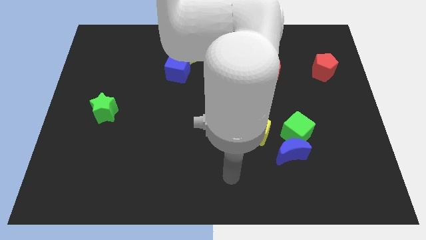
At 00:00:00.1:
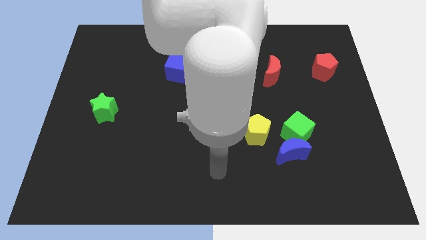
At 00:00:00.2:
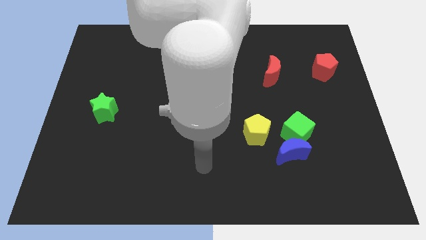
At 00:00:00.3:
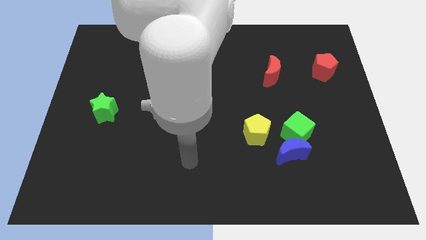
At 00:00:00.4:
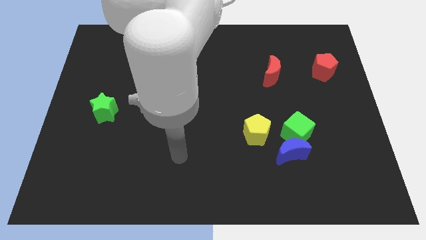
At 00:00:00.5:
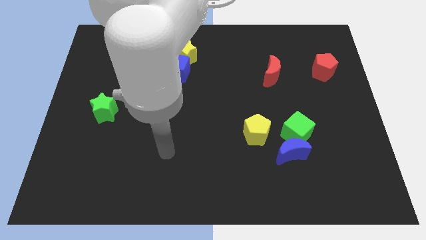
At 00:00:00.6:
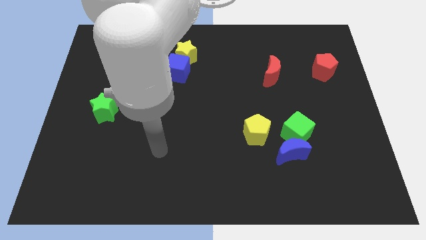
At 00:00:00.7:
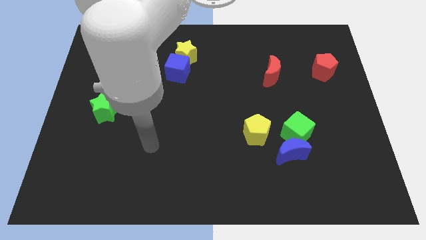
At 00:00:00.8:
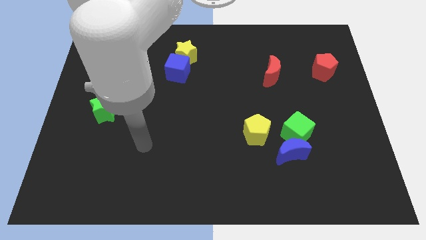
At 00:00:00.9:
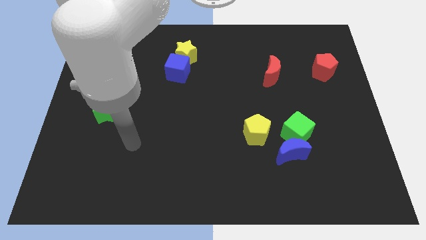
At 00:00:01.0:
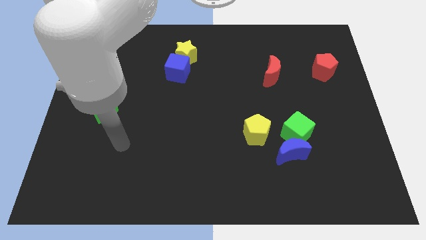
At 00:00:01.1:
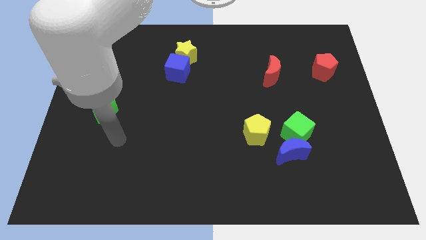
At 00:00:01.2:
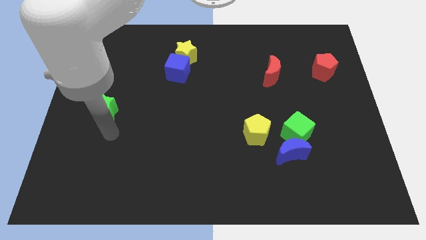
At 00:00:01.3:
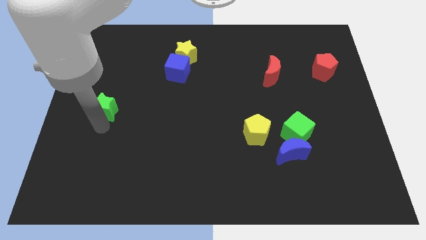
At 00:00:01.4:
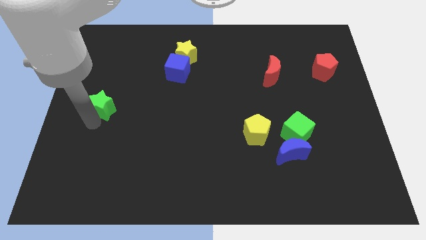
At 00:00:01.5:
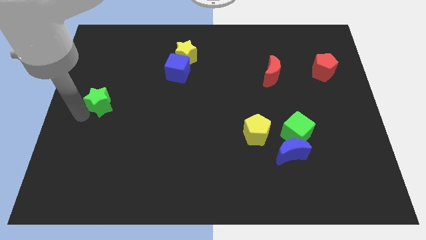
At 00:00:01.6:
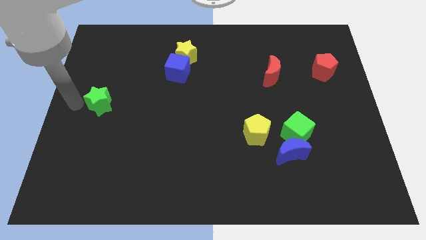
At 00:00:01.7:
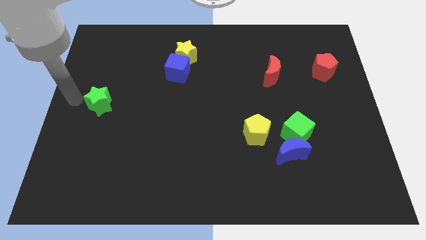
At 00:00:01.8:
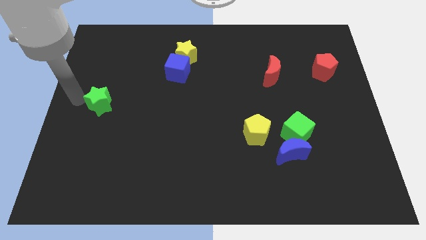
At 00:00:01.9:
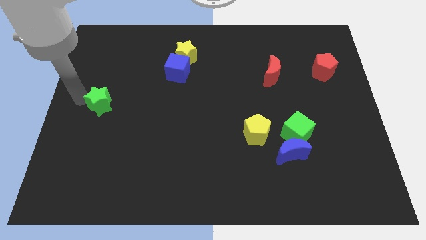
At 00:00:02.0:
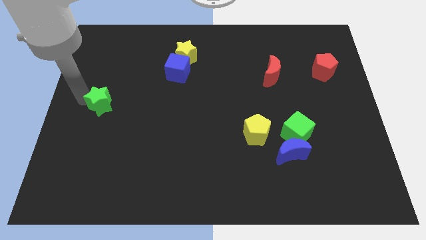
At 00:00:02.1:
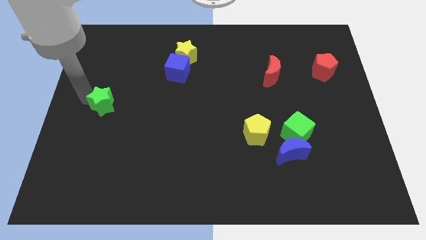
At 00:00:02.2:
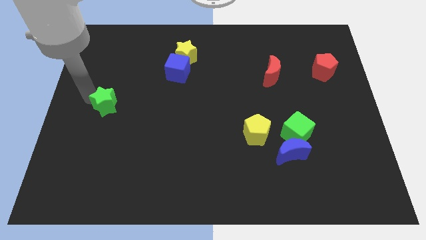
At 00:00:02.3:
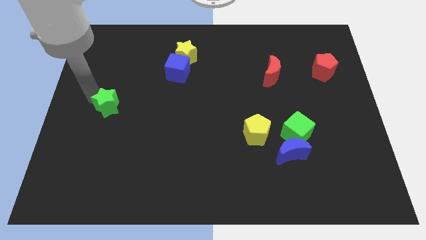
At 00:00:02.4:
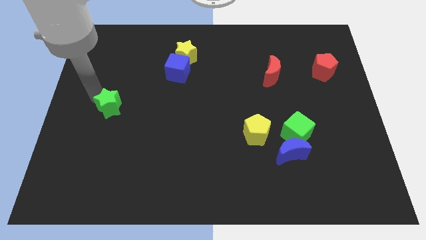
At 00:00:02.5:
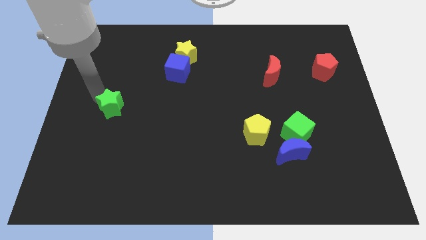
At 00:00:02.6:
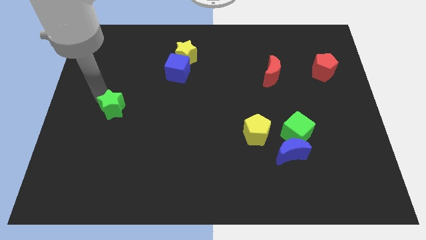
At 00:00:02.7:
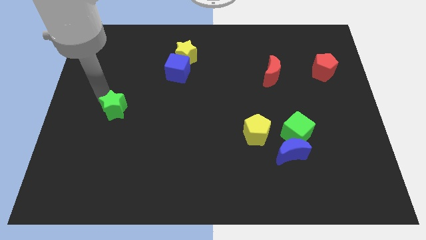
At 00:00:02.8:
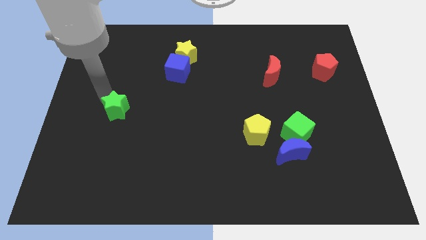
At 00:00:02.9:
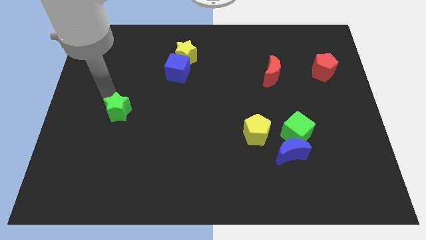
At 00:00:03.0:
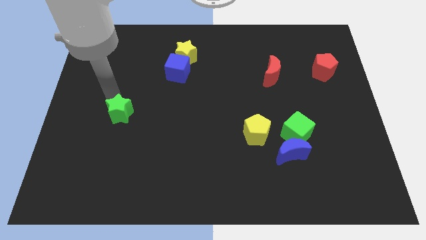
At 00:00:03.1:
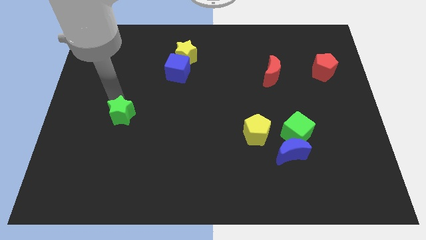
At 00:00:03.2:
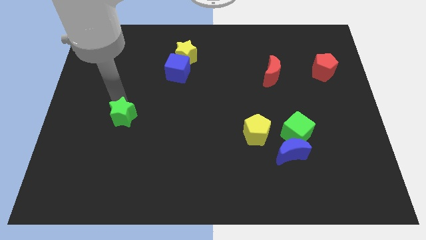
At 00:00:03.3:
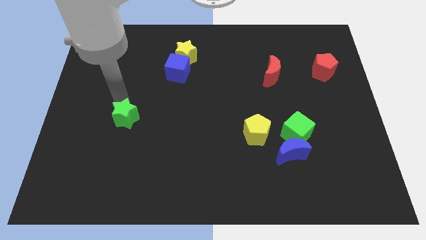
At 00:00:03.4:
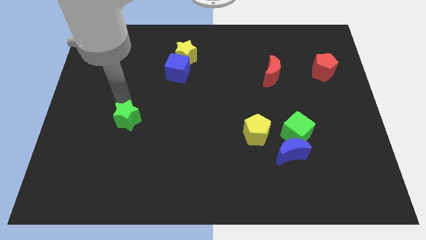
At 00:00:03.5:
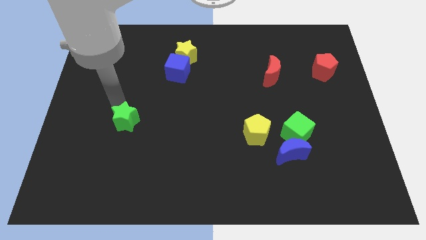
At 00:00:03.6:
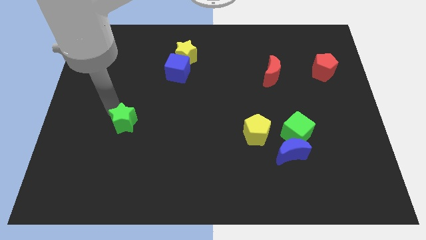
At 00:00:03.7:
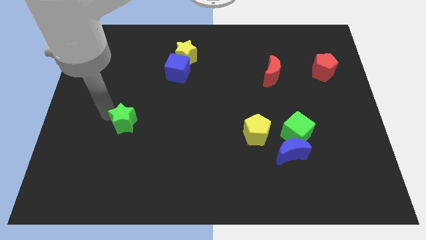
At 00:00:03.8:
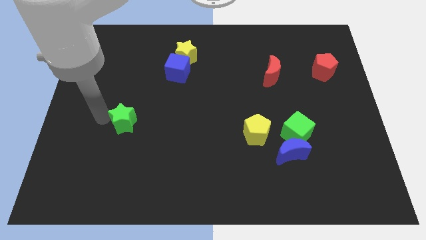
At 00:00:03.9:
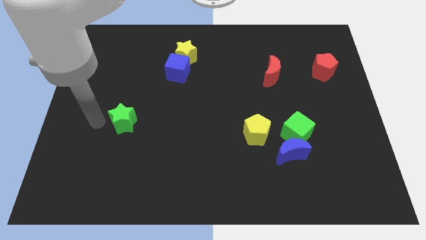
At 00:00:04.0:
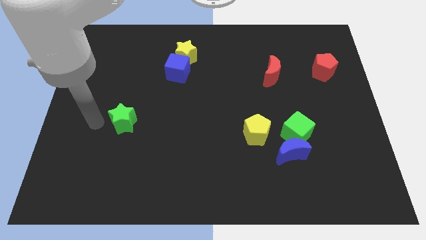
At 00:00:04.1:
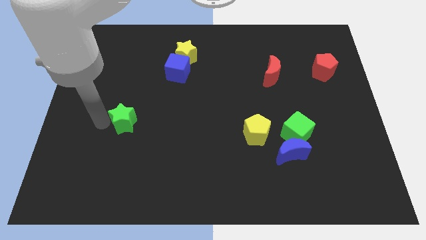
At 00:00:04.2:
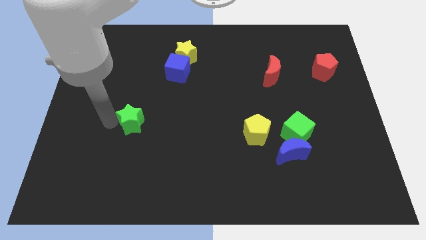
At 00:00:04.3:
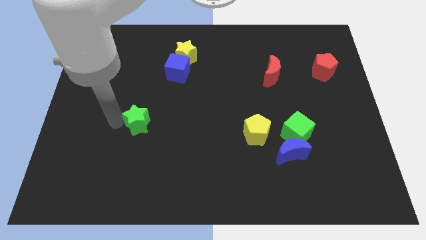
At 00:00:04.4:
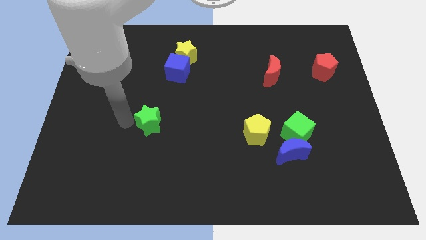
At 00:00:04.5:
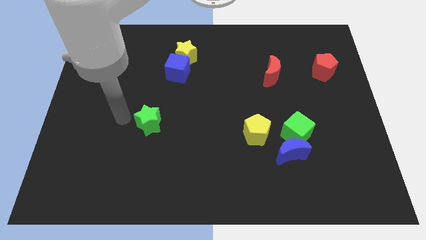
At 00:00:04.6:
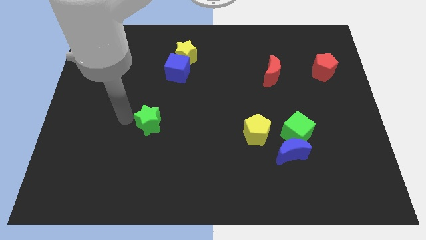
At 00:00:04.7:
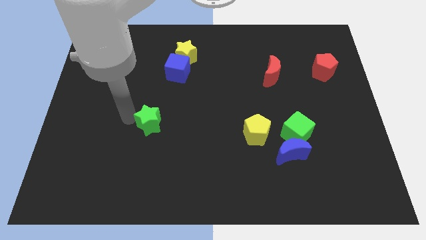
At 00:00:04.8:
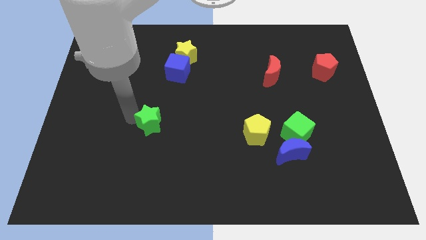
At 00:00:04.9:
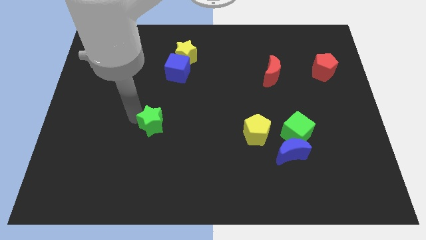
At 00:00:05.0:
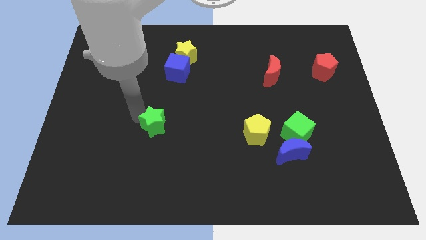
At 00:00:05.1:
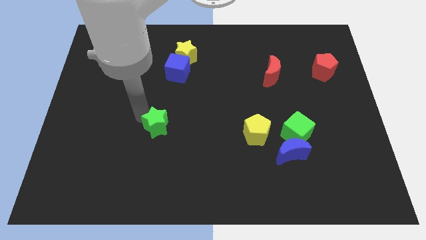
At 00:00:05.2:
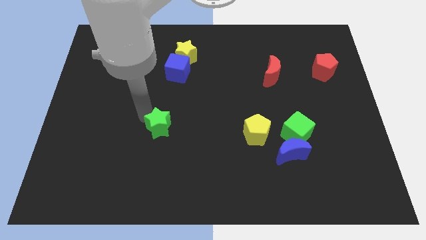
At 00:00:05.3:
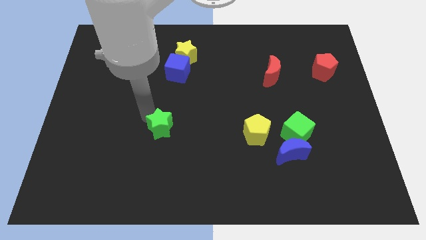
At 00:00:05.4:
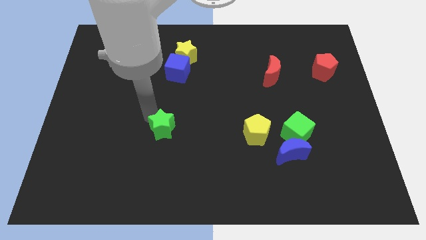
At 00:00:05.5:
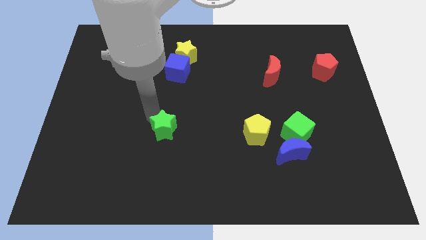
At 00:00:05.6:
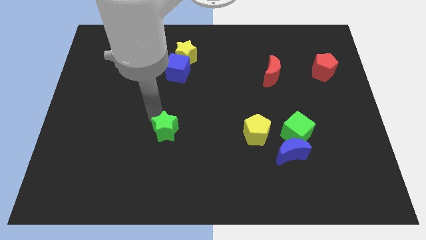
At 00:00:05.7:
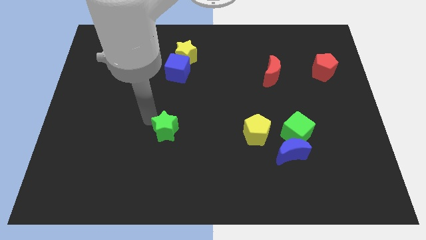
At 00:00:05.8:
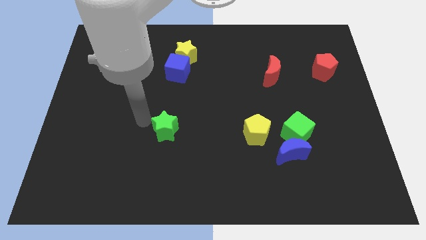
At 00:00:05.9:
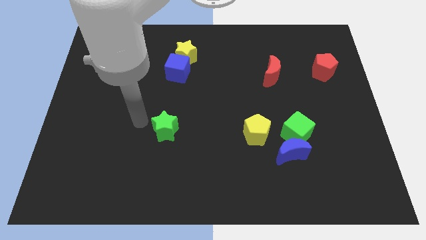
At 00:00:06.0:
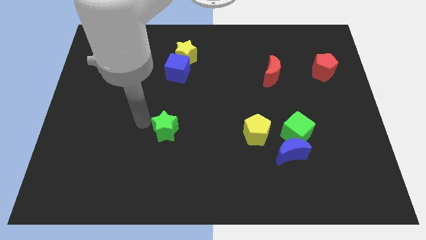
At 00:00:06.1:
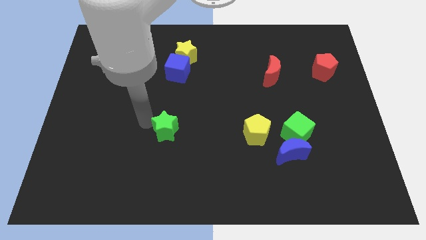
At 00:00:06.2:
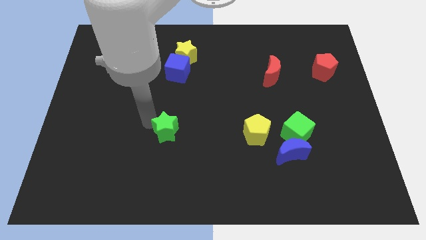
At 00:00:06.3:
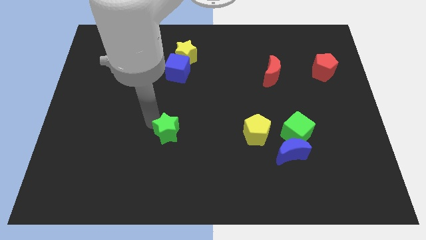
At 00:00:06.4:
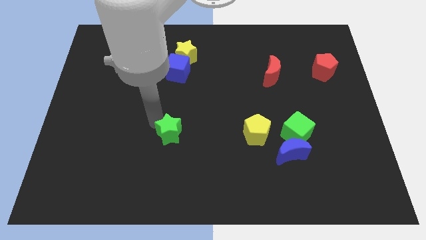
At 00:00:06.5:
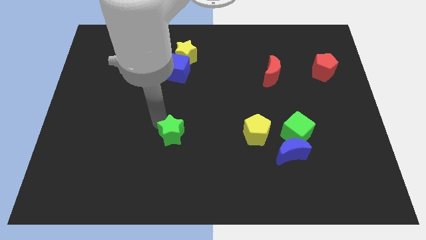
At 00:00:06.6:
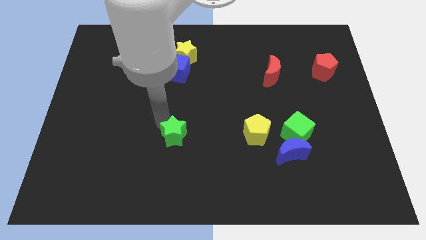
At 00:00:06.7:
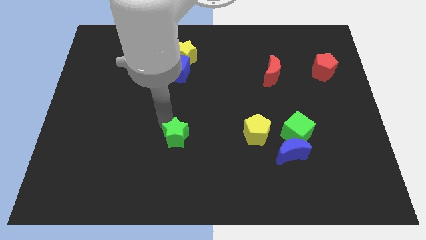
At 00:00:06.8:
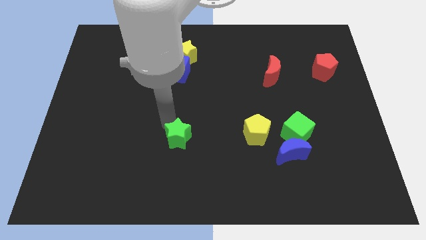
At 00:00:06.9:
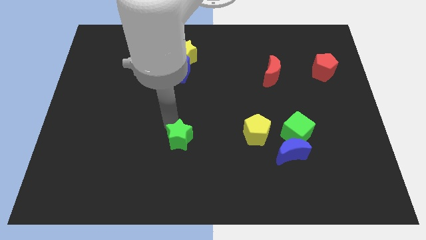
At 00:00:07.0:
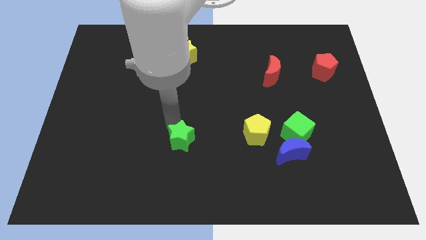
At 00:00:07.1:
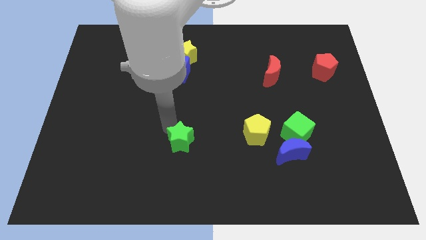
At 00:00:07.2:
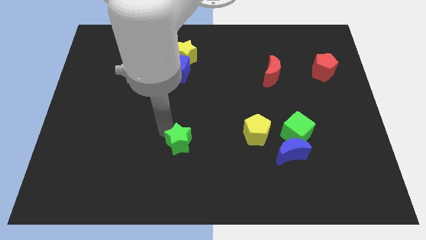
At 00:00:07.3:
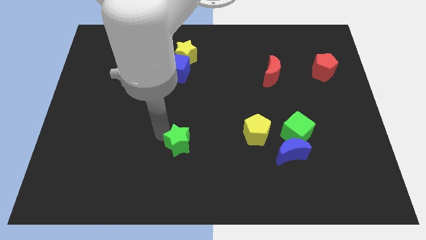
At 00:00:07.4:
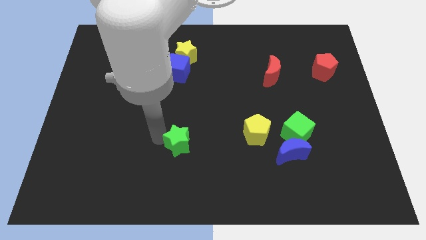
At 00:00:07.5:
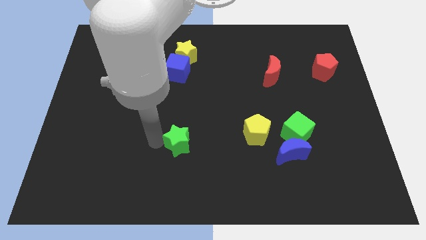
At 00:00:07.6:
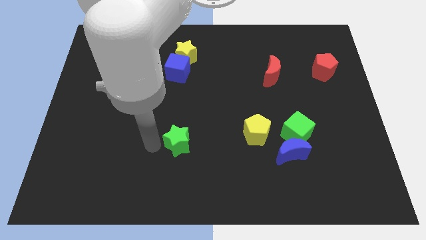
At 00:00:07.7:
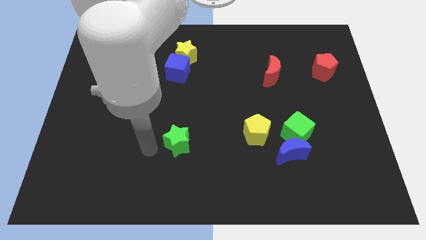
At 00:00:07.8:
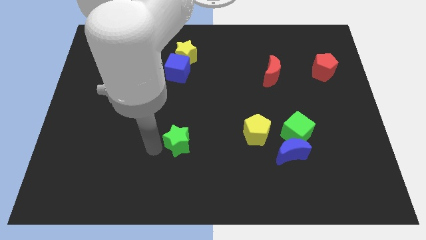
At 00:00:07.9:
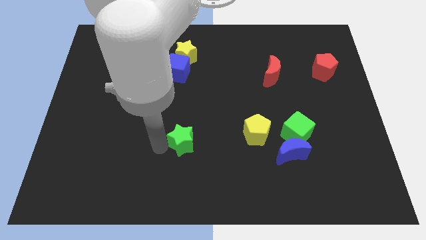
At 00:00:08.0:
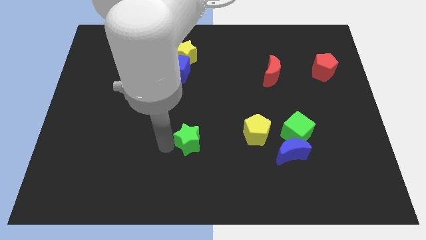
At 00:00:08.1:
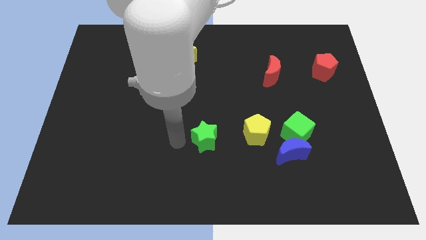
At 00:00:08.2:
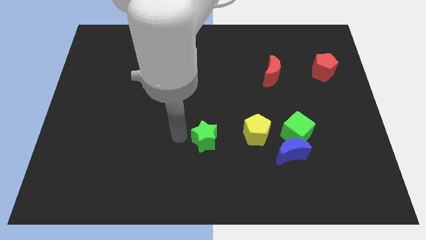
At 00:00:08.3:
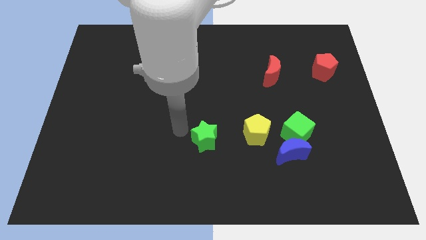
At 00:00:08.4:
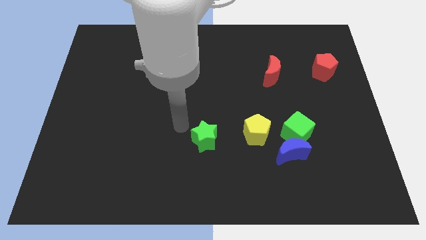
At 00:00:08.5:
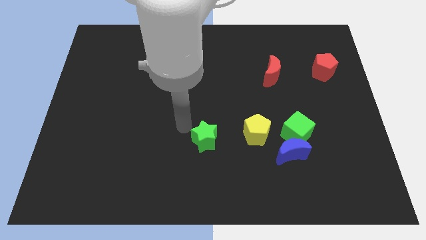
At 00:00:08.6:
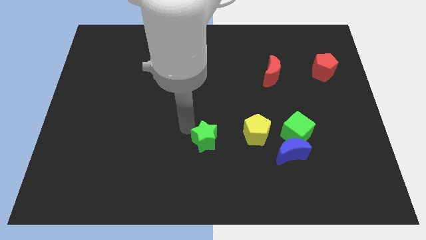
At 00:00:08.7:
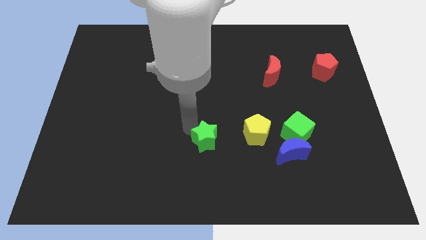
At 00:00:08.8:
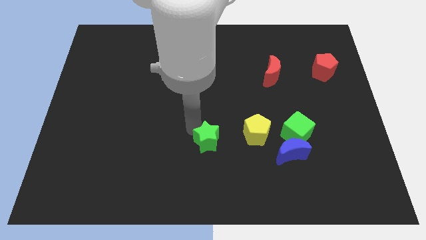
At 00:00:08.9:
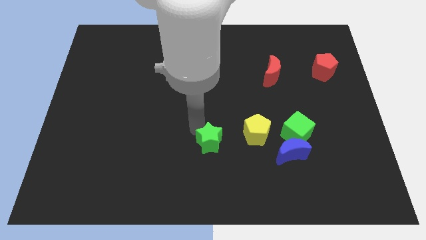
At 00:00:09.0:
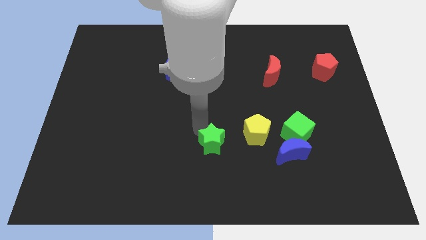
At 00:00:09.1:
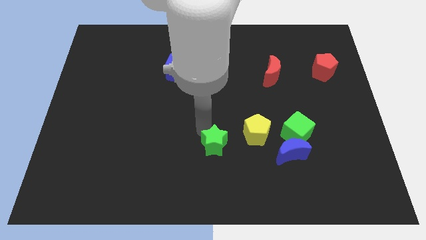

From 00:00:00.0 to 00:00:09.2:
put the green star to the bottom left side of the yellow pentagon
